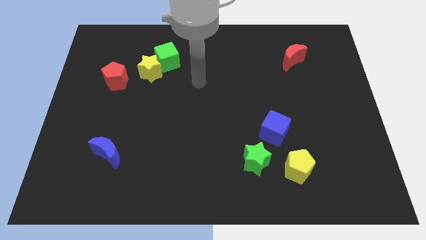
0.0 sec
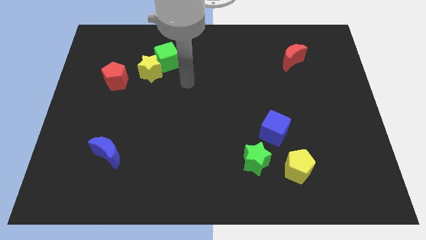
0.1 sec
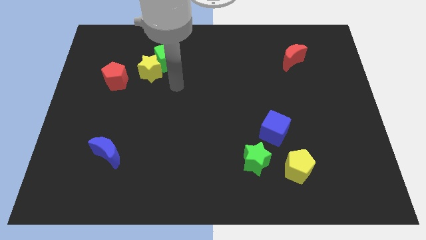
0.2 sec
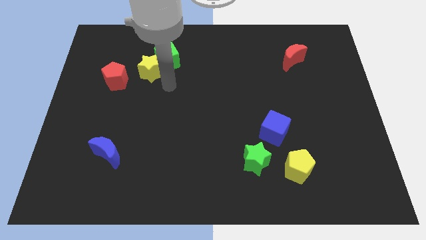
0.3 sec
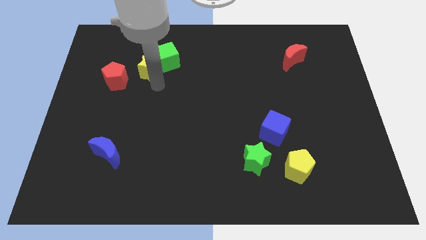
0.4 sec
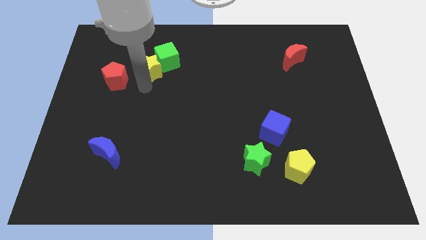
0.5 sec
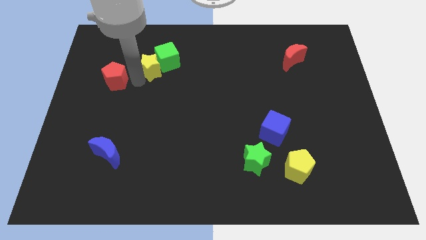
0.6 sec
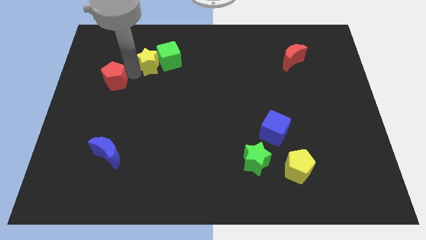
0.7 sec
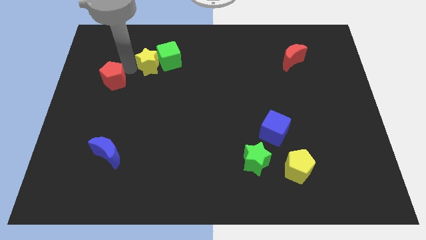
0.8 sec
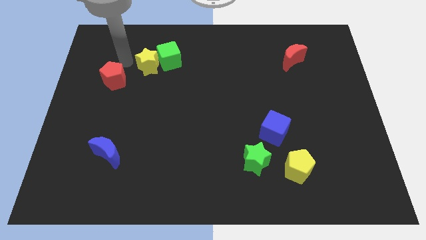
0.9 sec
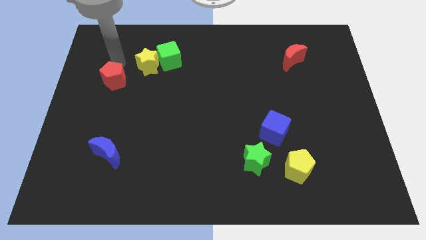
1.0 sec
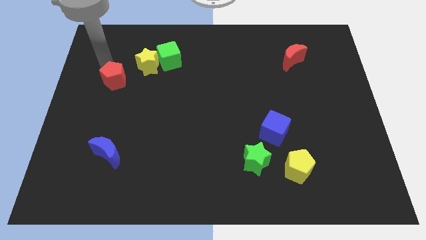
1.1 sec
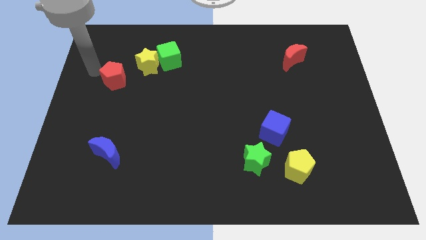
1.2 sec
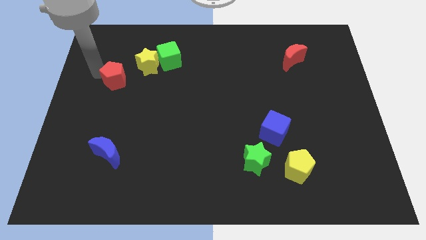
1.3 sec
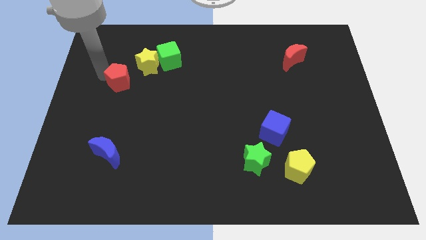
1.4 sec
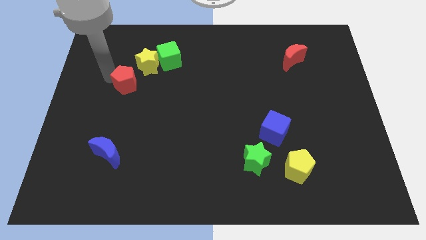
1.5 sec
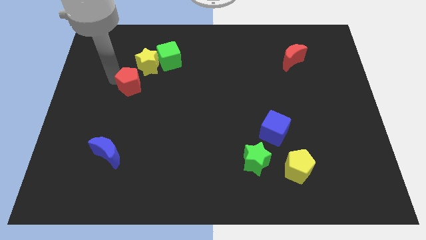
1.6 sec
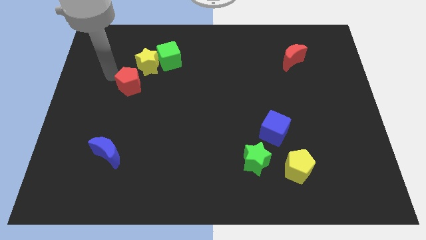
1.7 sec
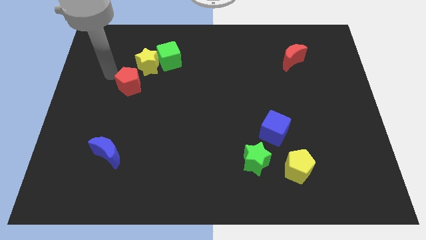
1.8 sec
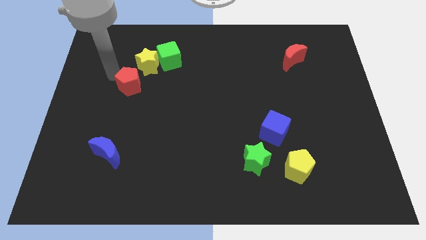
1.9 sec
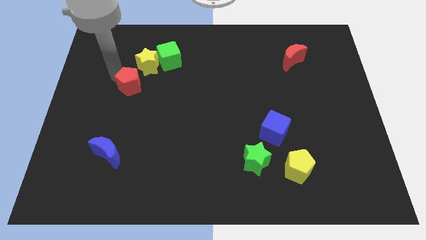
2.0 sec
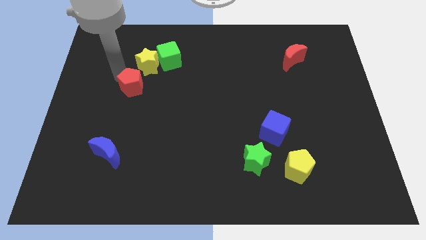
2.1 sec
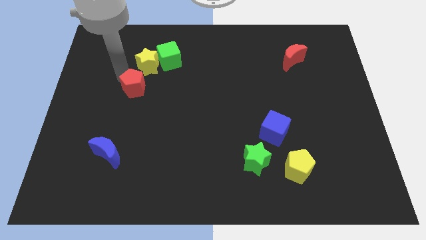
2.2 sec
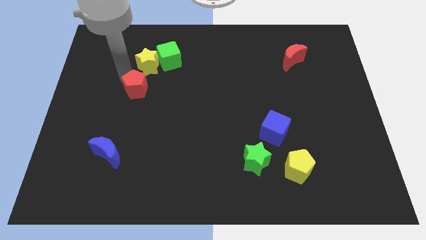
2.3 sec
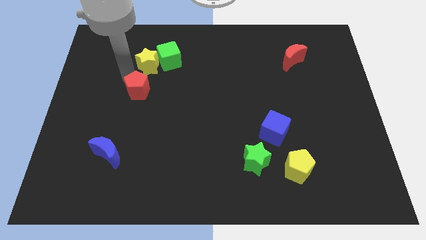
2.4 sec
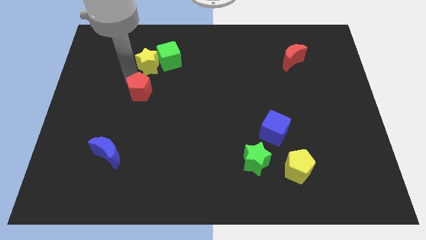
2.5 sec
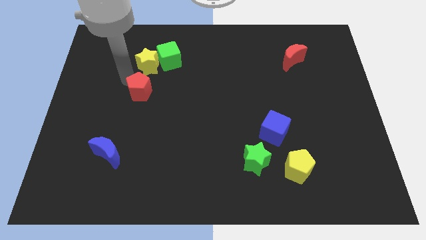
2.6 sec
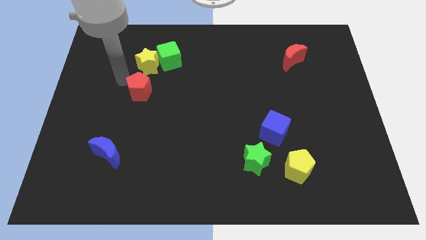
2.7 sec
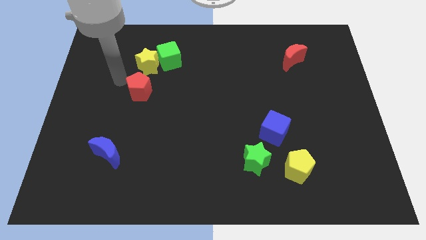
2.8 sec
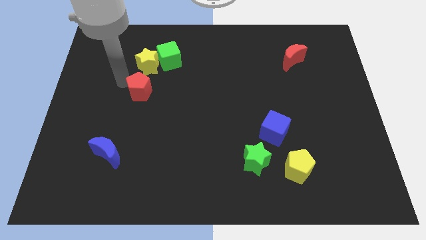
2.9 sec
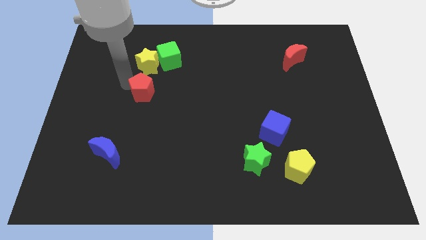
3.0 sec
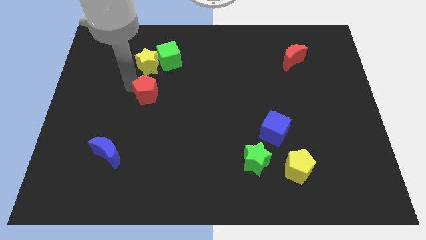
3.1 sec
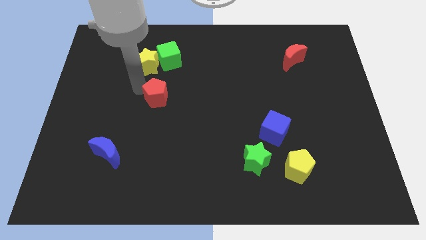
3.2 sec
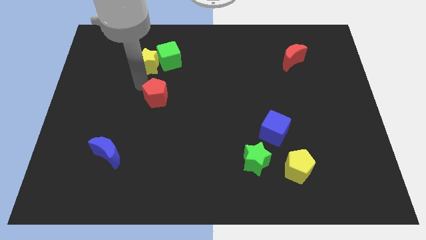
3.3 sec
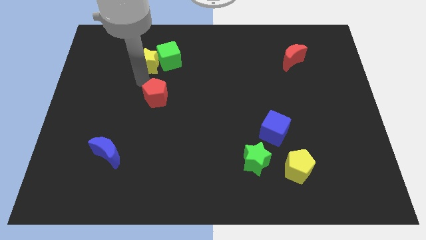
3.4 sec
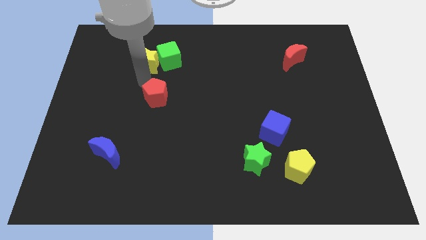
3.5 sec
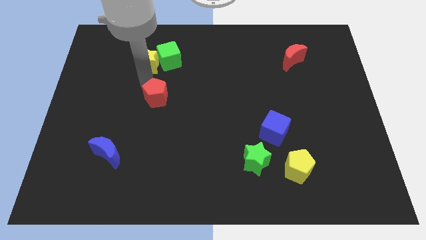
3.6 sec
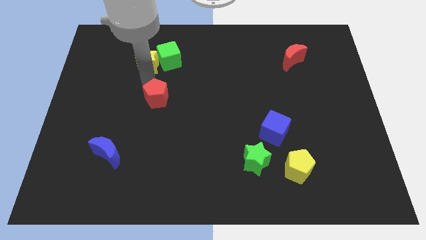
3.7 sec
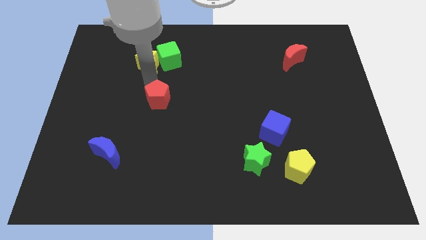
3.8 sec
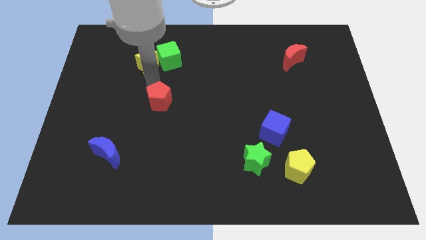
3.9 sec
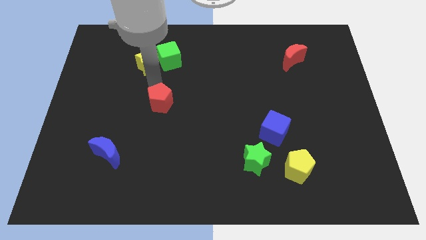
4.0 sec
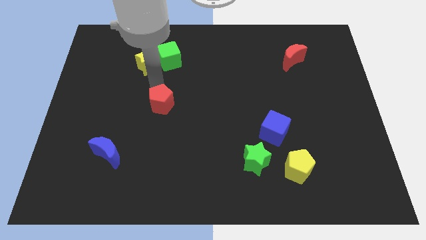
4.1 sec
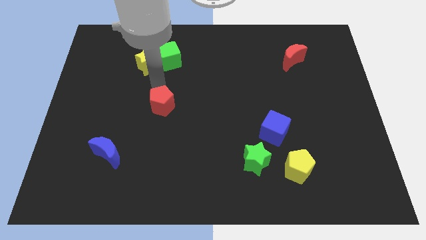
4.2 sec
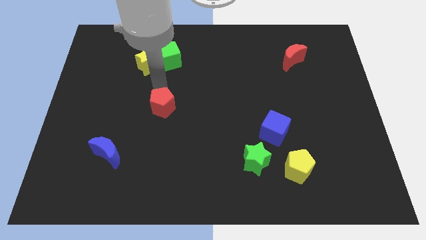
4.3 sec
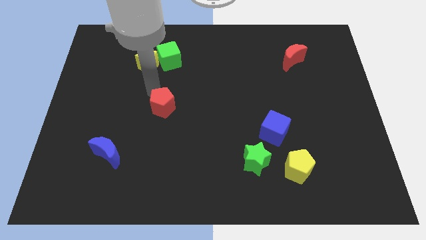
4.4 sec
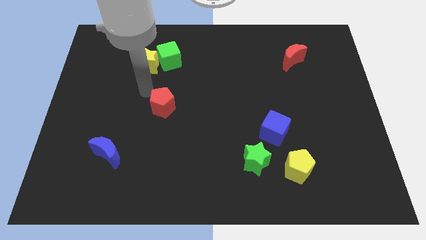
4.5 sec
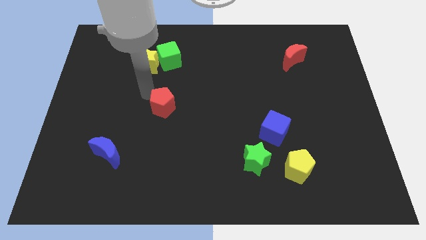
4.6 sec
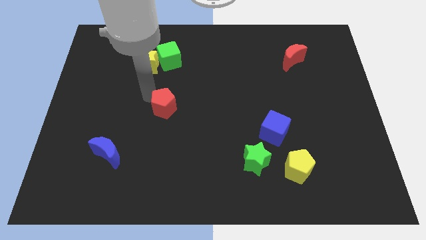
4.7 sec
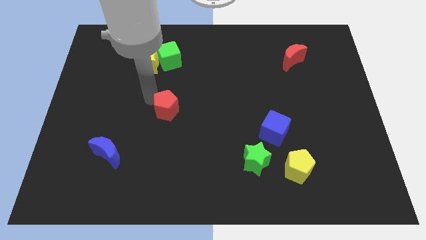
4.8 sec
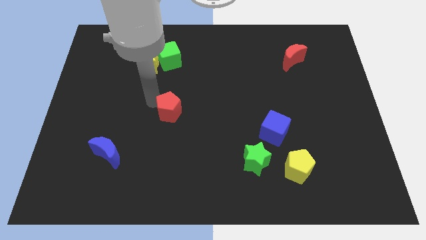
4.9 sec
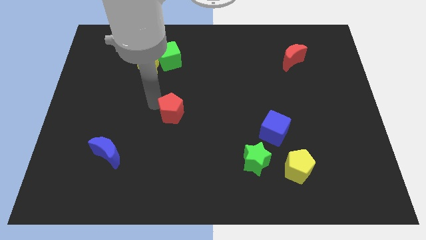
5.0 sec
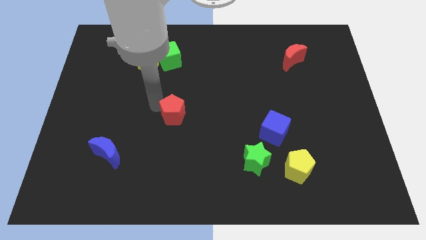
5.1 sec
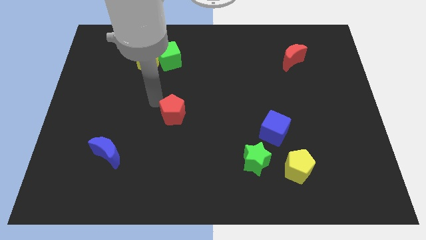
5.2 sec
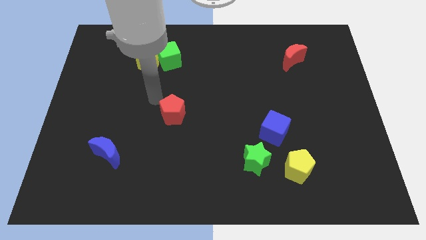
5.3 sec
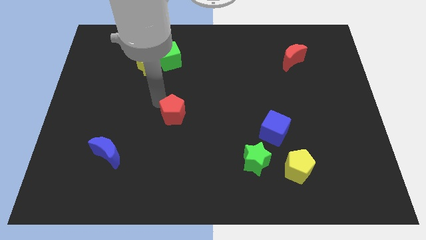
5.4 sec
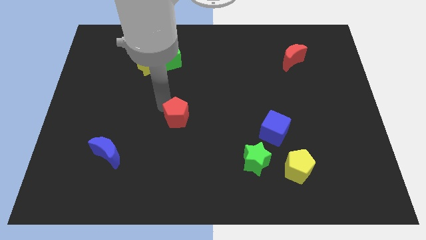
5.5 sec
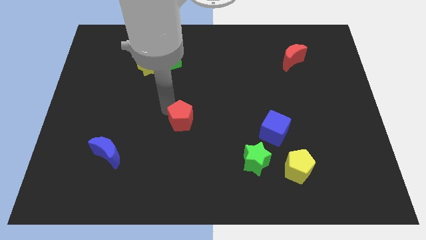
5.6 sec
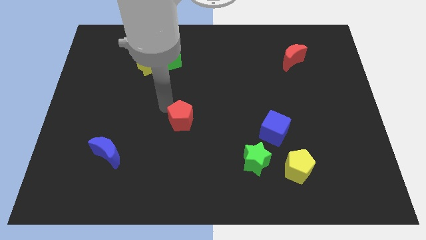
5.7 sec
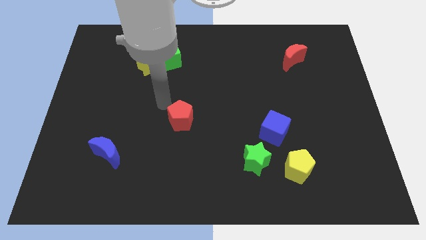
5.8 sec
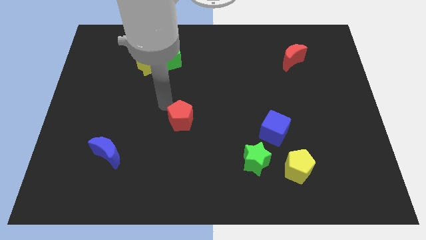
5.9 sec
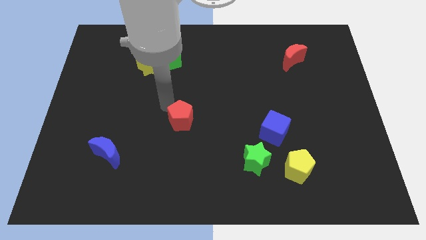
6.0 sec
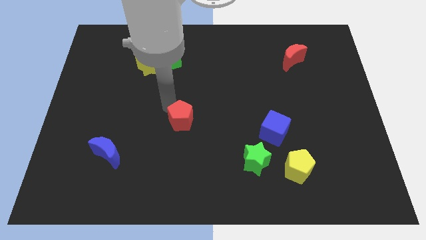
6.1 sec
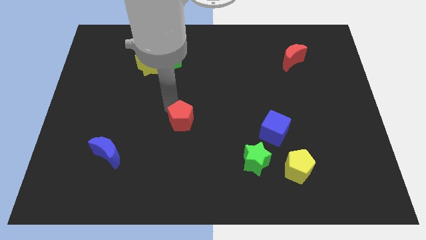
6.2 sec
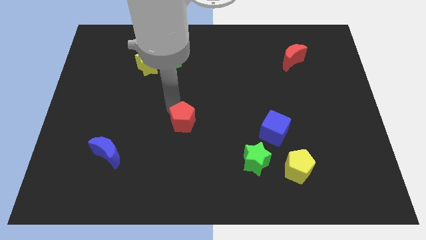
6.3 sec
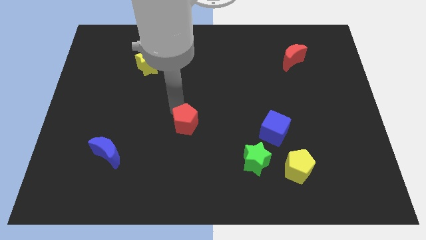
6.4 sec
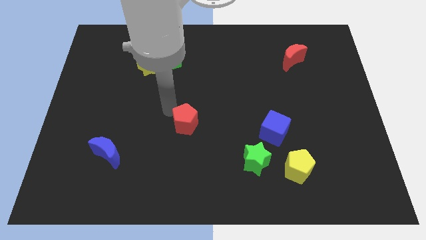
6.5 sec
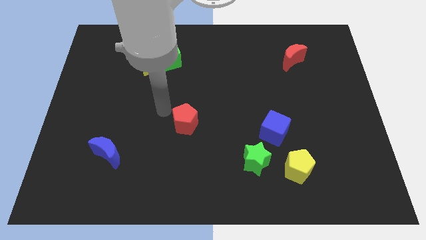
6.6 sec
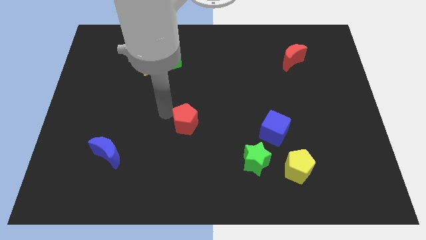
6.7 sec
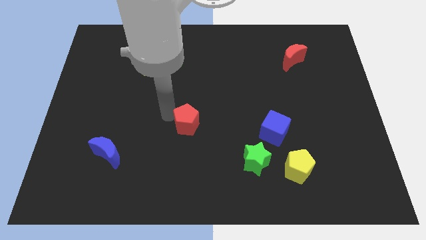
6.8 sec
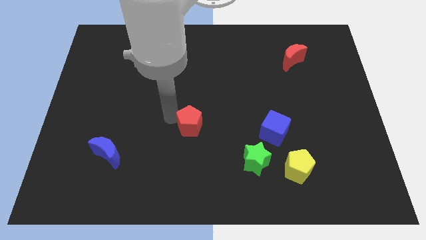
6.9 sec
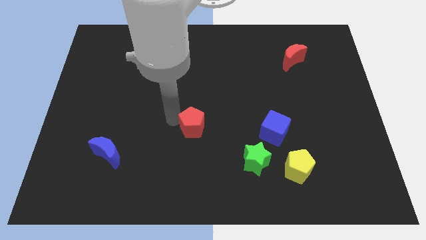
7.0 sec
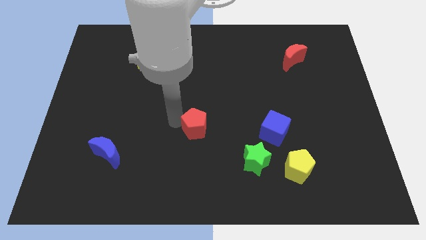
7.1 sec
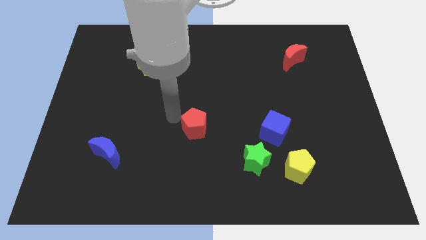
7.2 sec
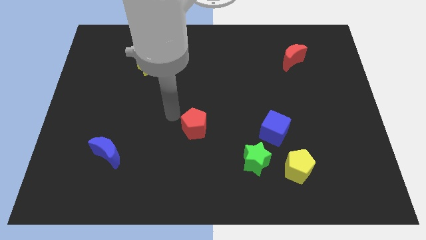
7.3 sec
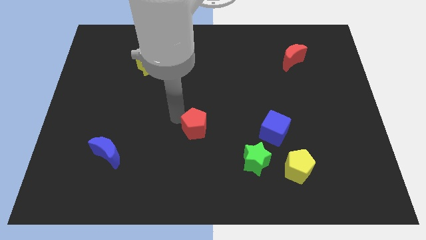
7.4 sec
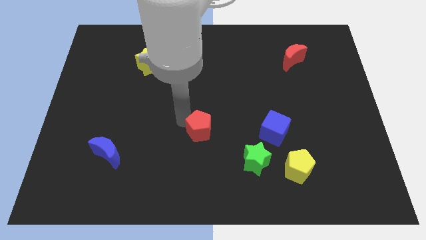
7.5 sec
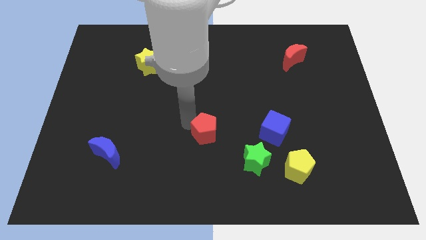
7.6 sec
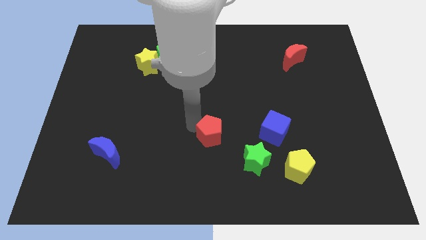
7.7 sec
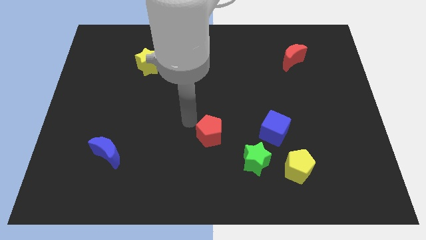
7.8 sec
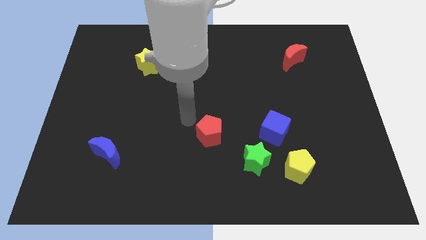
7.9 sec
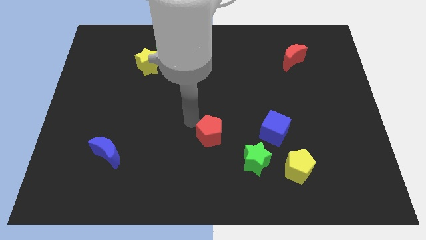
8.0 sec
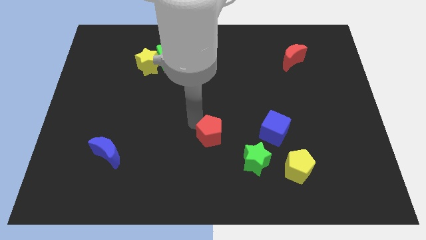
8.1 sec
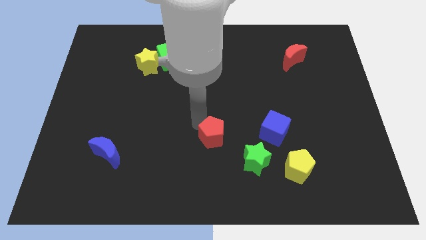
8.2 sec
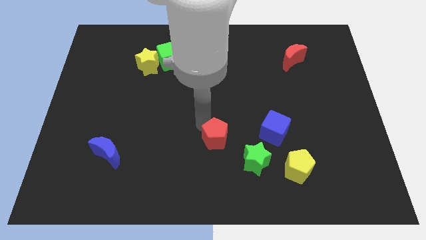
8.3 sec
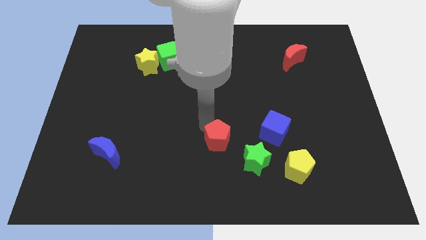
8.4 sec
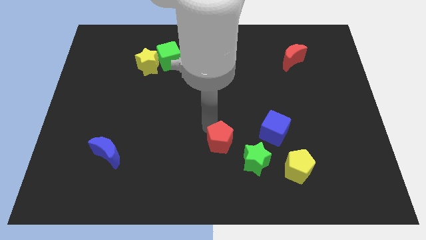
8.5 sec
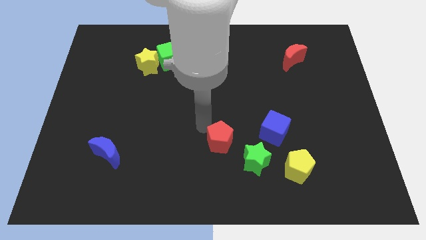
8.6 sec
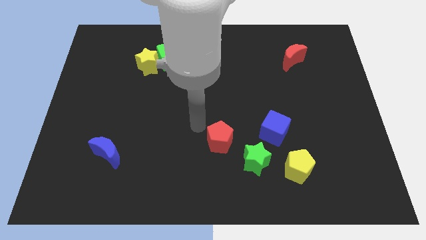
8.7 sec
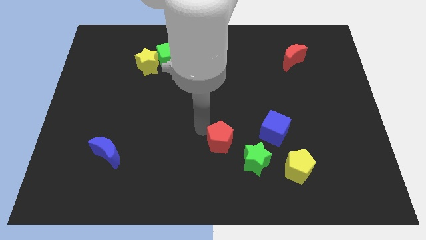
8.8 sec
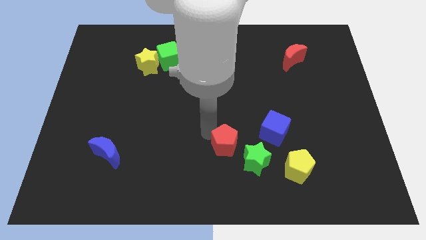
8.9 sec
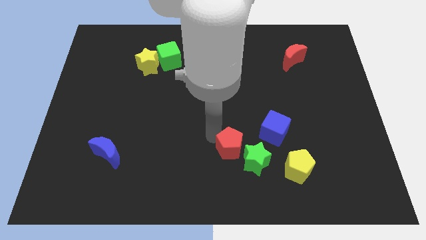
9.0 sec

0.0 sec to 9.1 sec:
slide the red pentagon next to the green star
